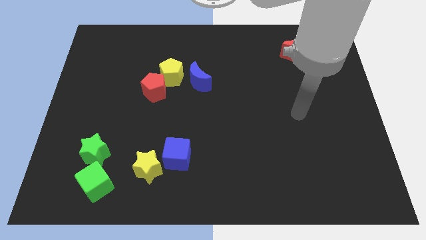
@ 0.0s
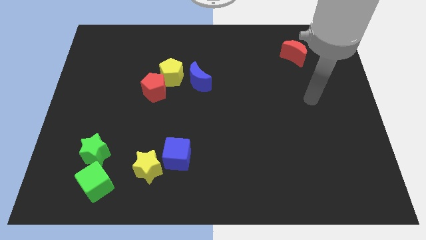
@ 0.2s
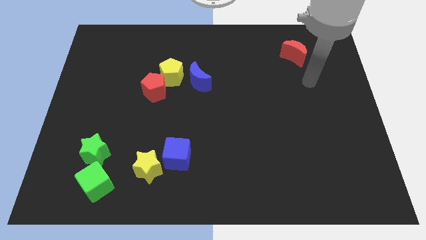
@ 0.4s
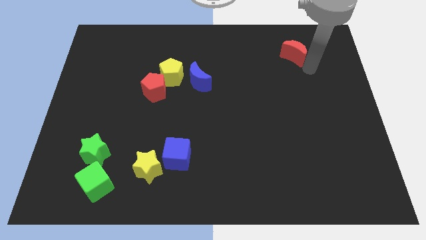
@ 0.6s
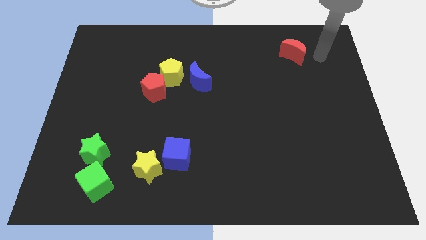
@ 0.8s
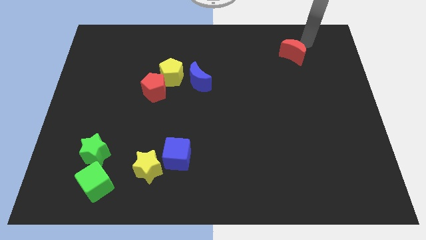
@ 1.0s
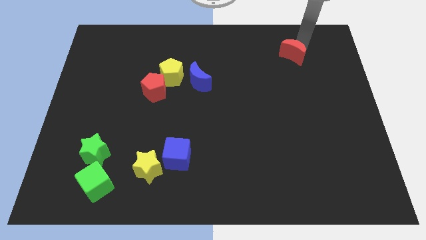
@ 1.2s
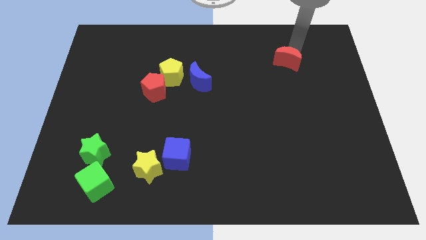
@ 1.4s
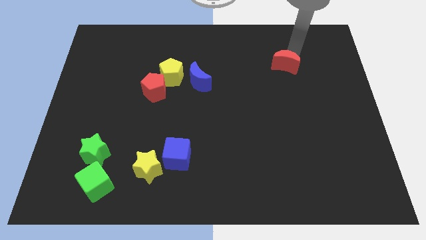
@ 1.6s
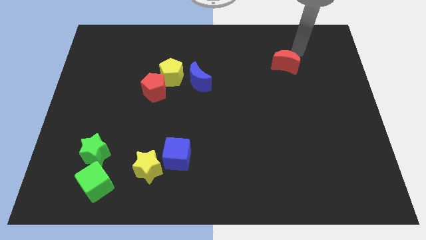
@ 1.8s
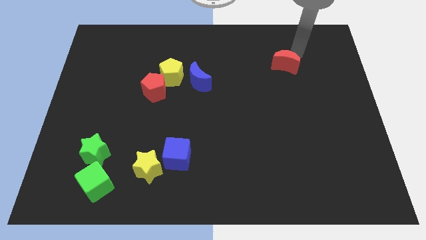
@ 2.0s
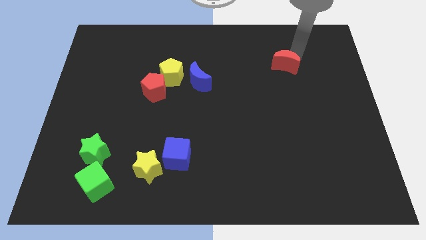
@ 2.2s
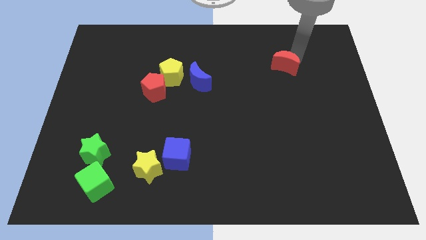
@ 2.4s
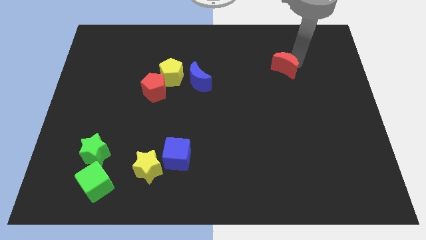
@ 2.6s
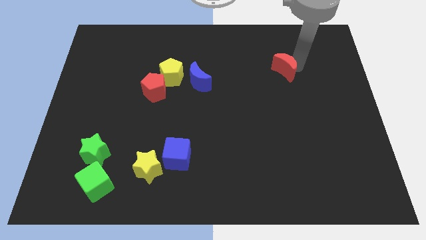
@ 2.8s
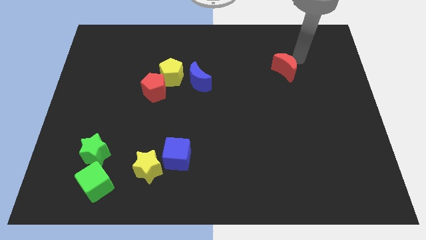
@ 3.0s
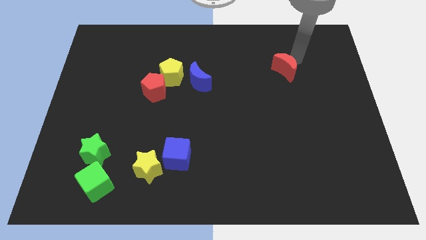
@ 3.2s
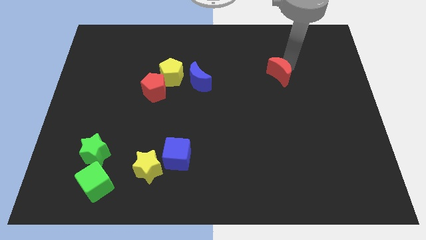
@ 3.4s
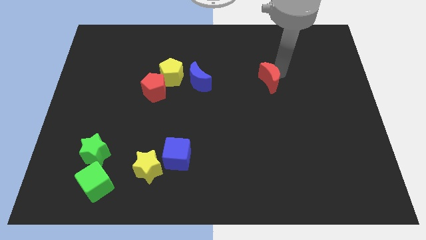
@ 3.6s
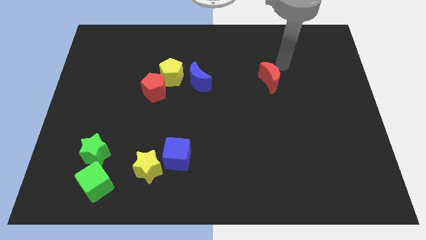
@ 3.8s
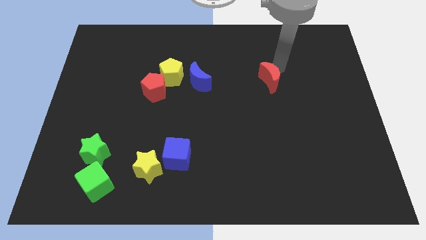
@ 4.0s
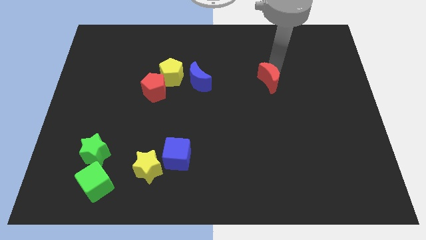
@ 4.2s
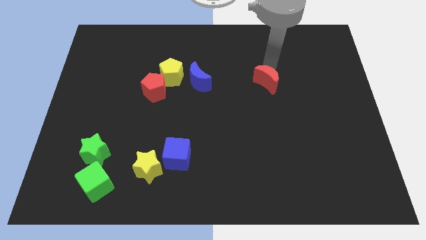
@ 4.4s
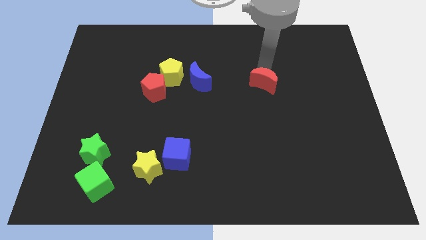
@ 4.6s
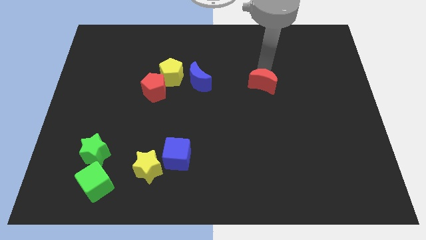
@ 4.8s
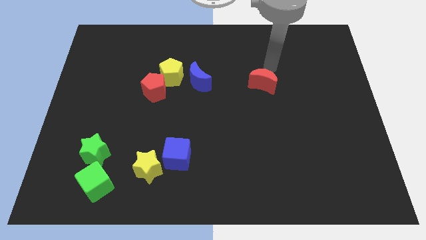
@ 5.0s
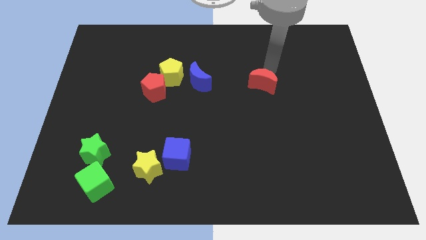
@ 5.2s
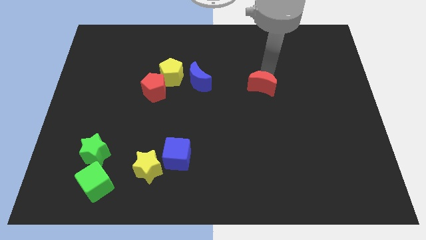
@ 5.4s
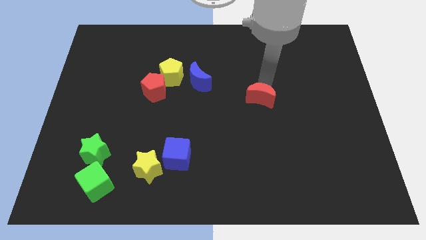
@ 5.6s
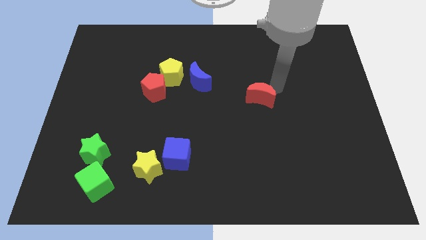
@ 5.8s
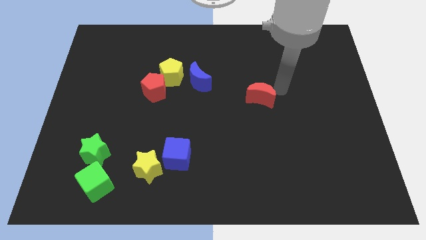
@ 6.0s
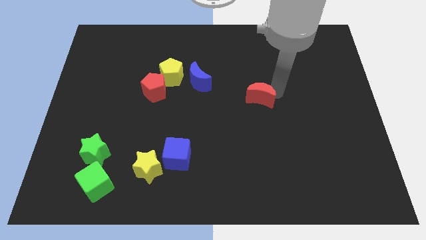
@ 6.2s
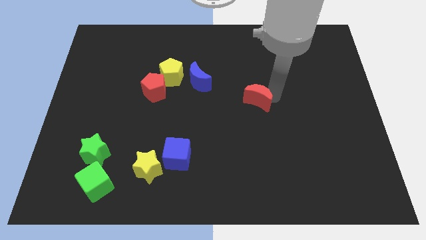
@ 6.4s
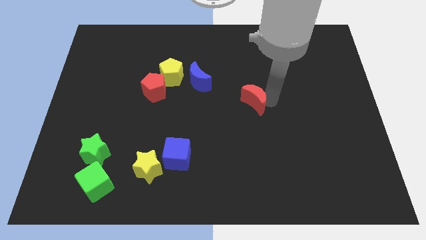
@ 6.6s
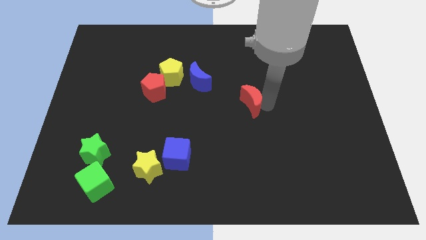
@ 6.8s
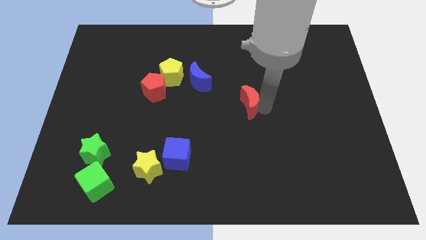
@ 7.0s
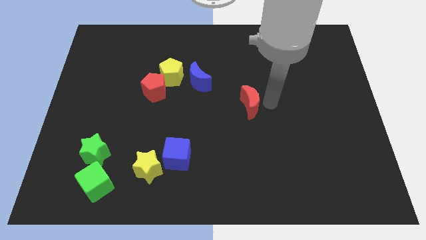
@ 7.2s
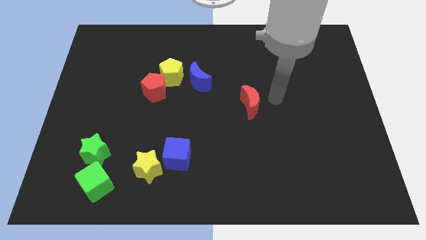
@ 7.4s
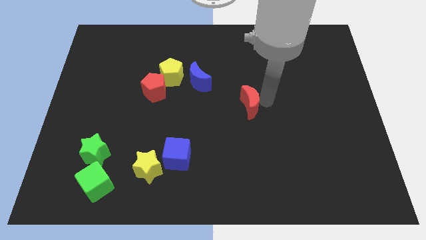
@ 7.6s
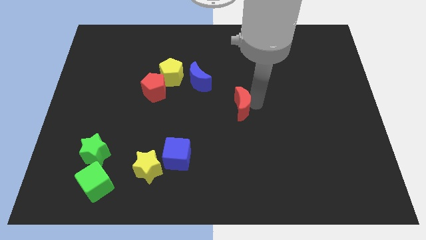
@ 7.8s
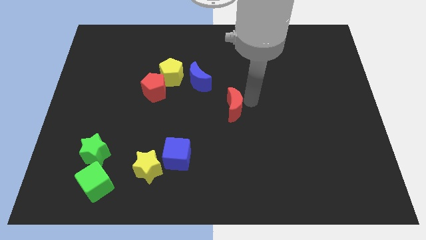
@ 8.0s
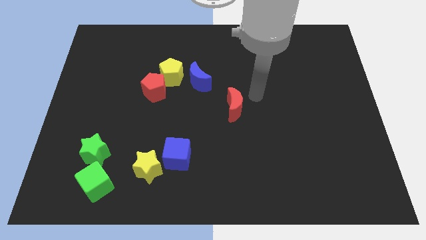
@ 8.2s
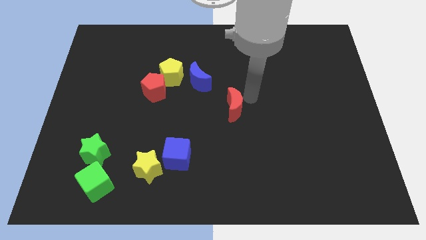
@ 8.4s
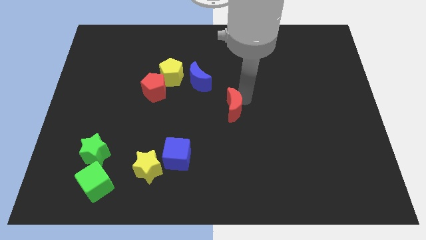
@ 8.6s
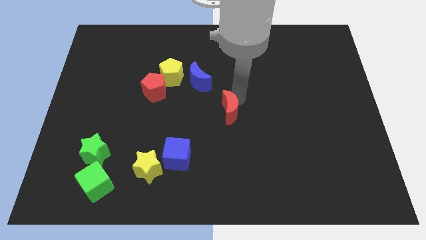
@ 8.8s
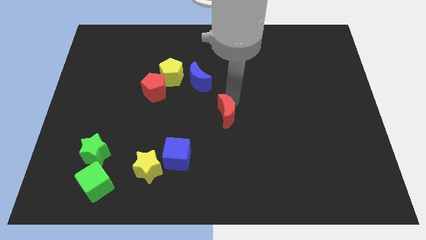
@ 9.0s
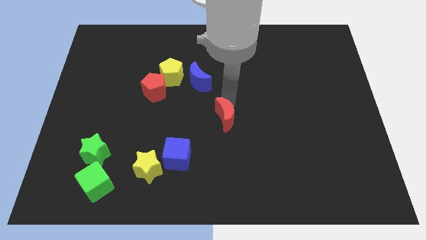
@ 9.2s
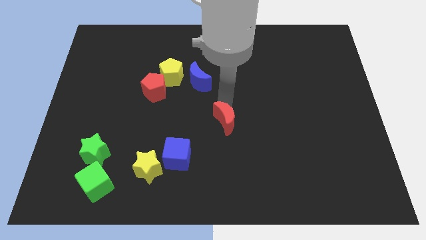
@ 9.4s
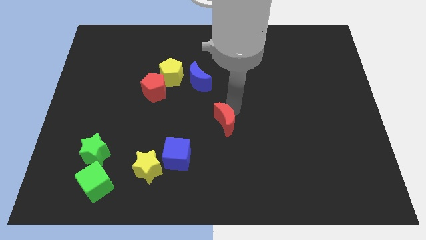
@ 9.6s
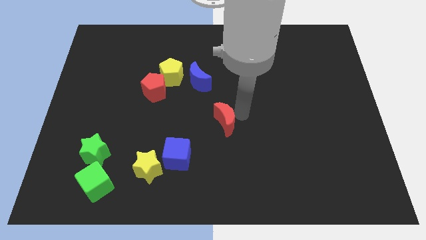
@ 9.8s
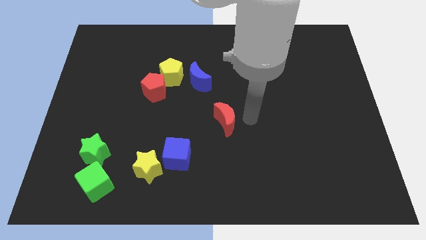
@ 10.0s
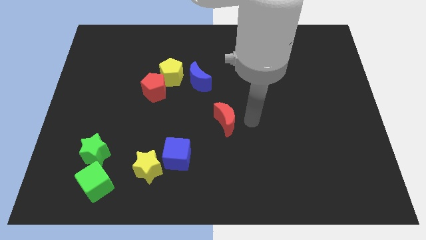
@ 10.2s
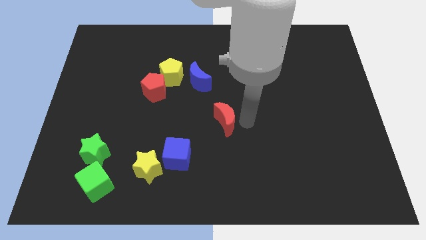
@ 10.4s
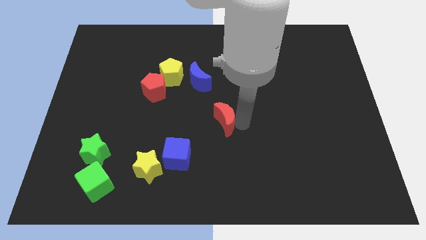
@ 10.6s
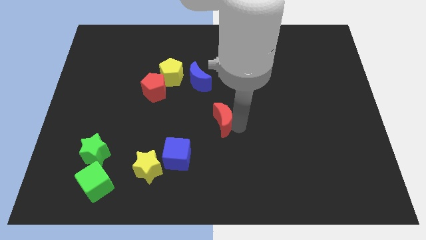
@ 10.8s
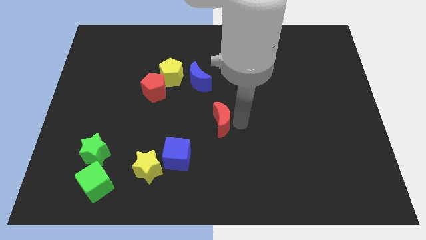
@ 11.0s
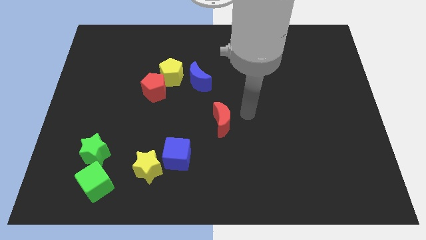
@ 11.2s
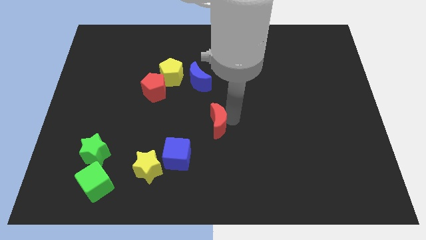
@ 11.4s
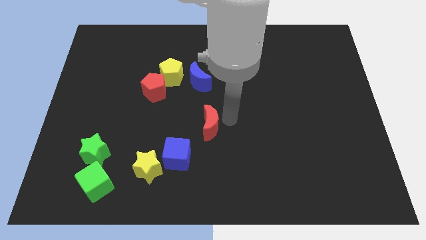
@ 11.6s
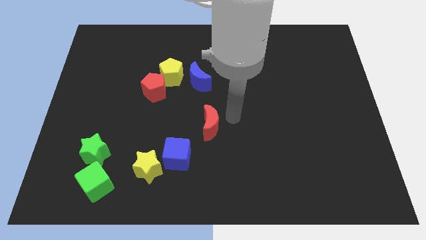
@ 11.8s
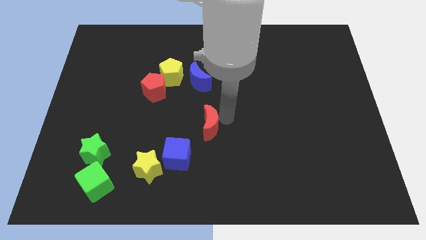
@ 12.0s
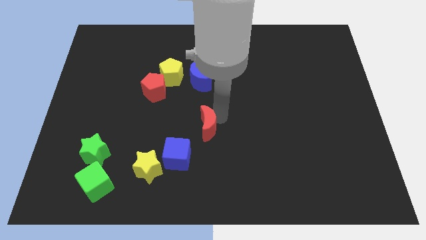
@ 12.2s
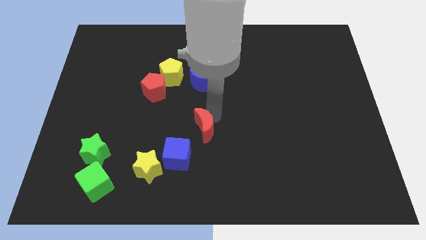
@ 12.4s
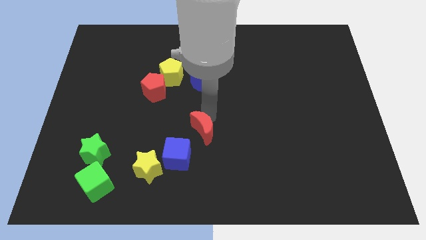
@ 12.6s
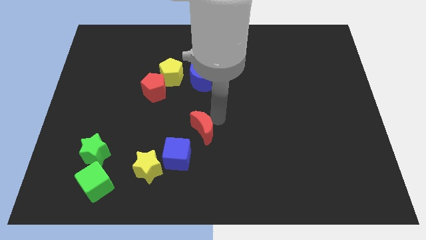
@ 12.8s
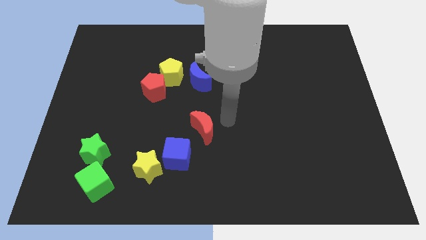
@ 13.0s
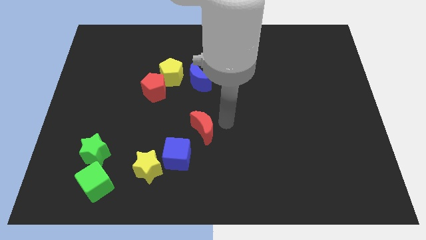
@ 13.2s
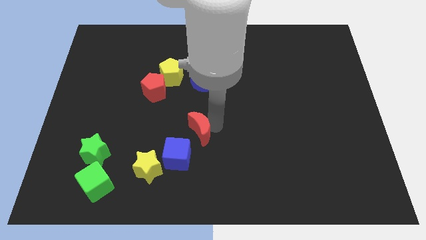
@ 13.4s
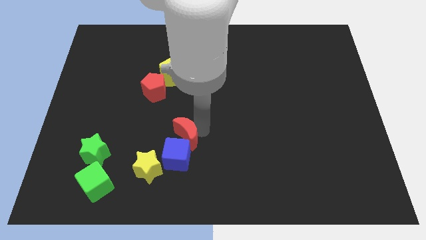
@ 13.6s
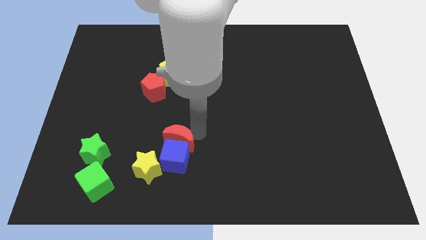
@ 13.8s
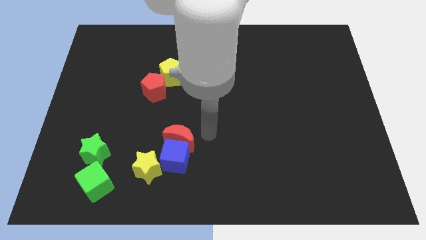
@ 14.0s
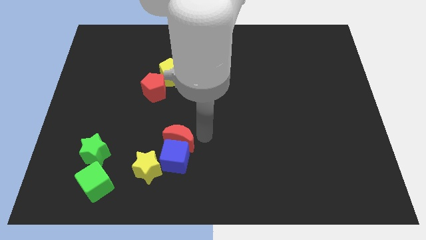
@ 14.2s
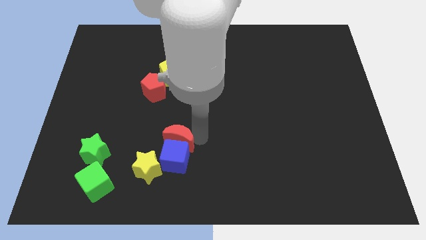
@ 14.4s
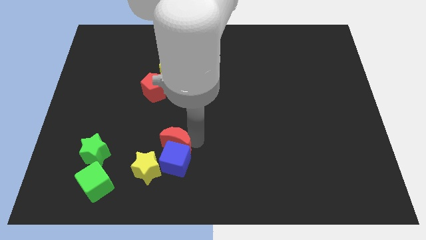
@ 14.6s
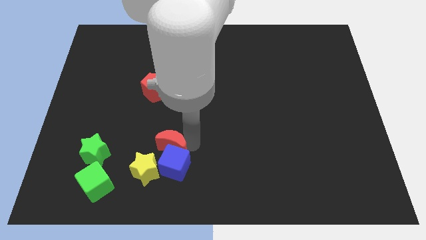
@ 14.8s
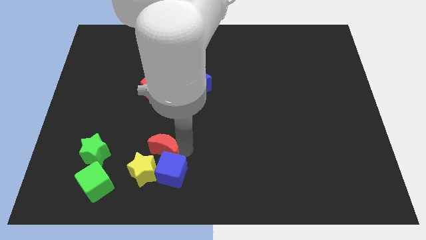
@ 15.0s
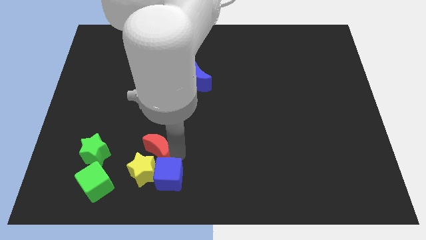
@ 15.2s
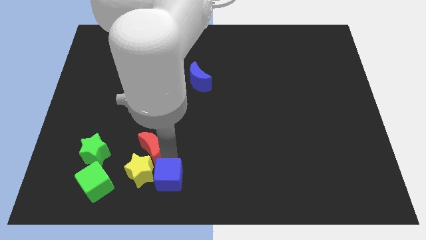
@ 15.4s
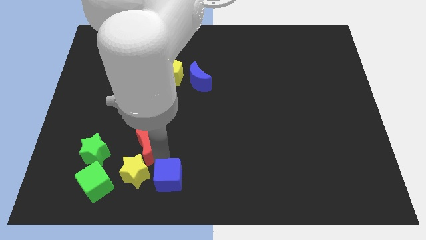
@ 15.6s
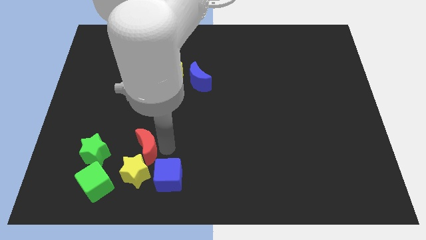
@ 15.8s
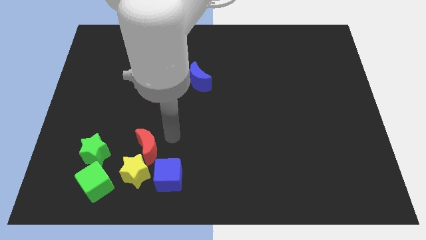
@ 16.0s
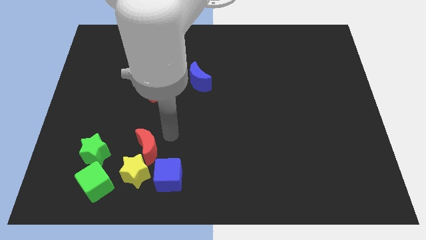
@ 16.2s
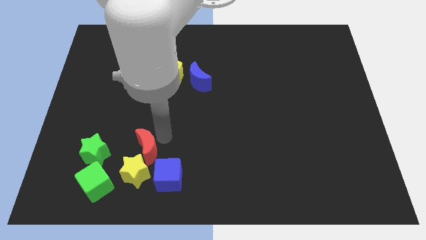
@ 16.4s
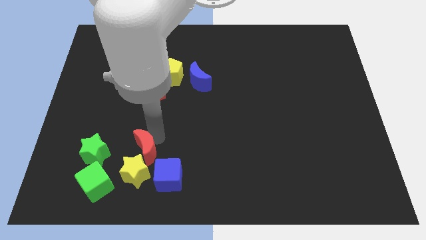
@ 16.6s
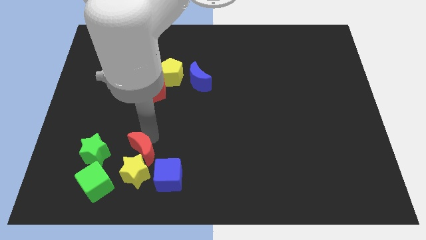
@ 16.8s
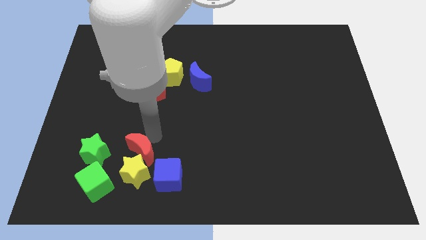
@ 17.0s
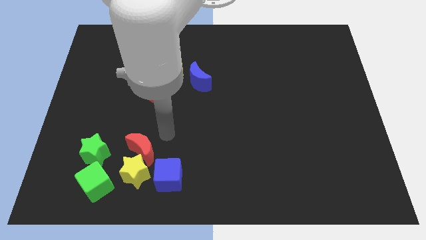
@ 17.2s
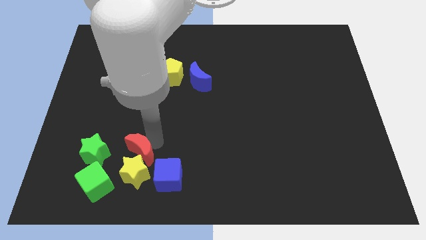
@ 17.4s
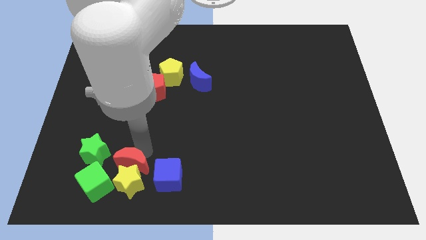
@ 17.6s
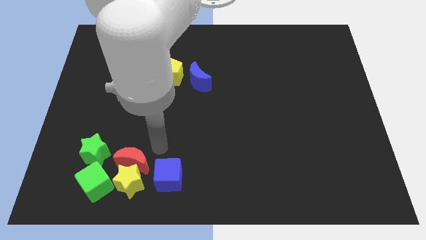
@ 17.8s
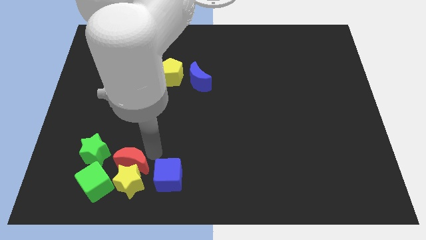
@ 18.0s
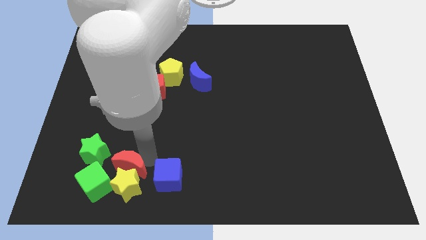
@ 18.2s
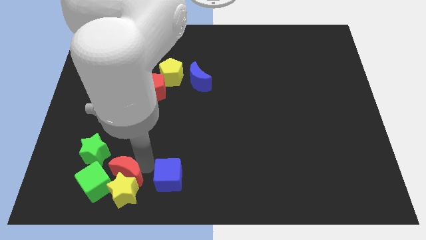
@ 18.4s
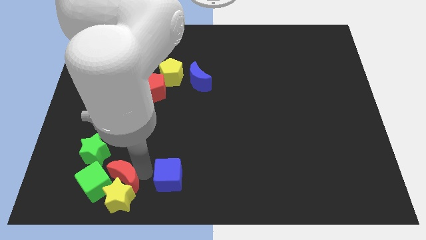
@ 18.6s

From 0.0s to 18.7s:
push the red moon close to the green cube
